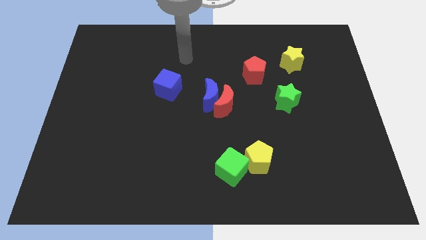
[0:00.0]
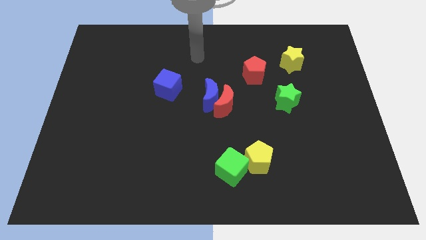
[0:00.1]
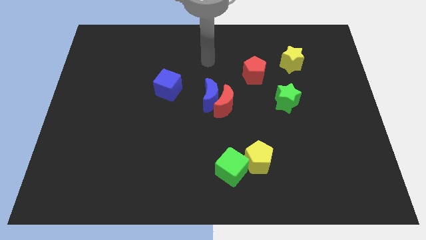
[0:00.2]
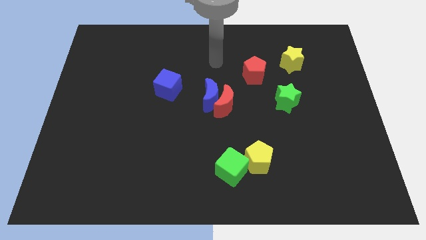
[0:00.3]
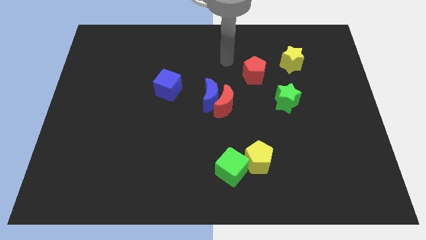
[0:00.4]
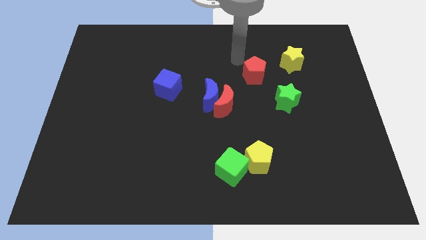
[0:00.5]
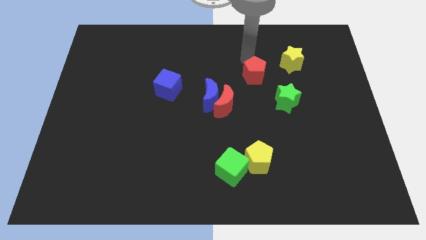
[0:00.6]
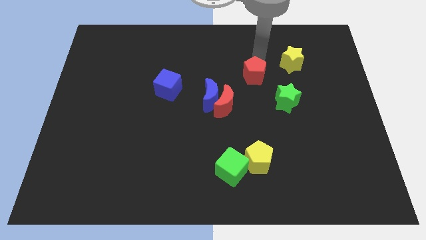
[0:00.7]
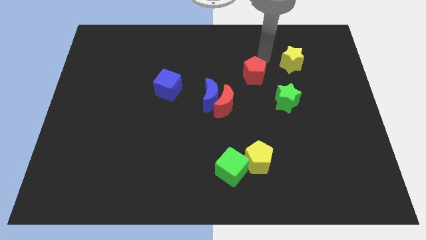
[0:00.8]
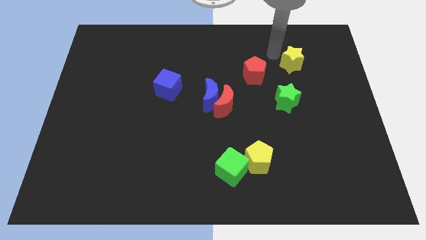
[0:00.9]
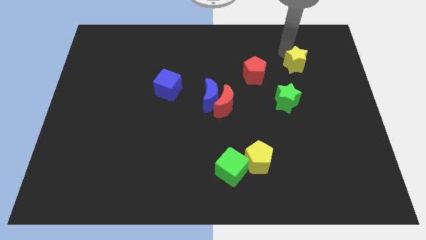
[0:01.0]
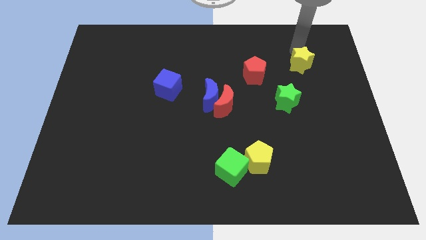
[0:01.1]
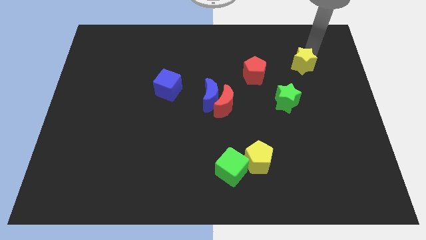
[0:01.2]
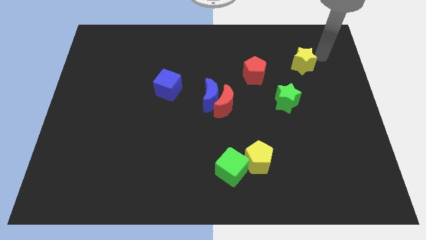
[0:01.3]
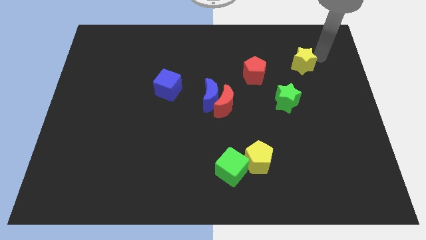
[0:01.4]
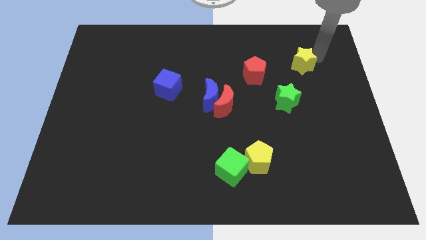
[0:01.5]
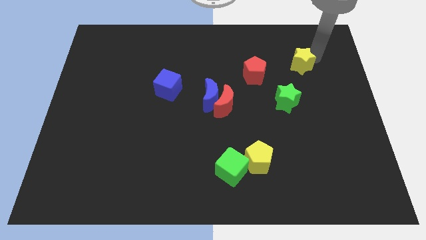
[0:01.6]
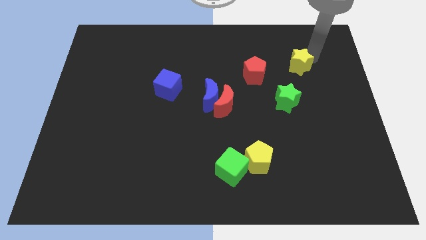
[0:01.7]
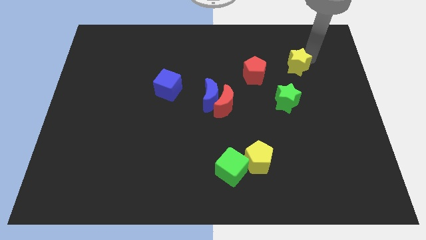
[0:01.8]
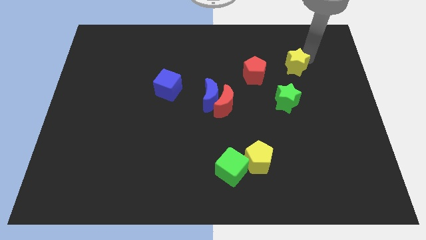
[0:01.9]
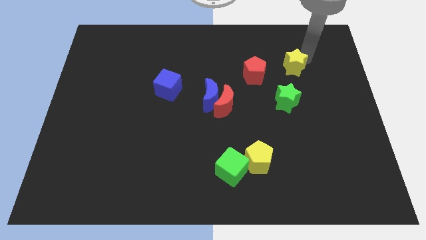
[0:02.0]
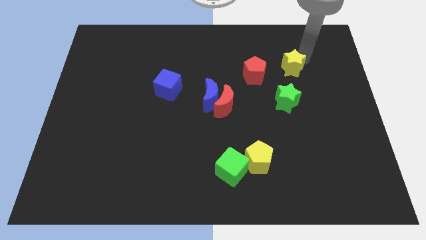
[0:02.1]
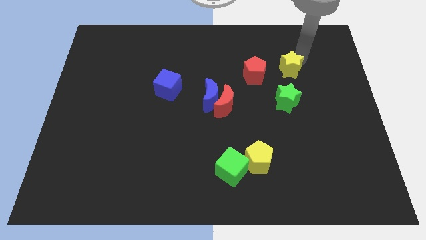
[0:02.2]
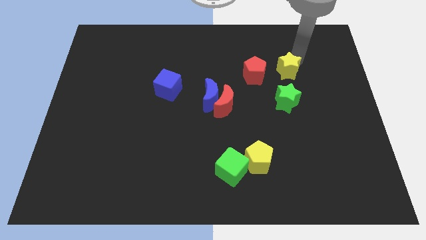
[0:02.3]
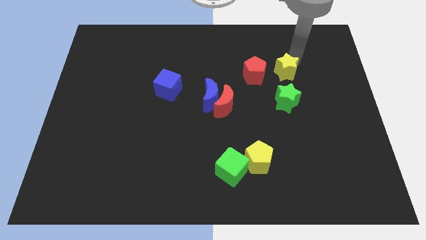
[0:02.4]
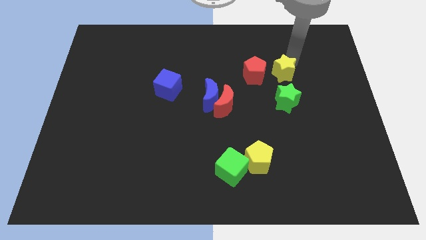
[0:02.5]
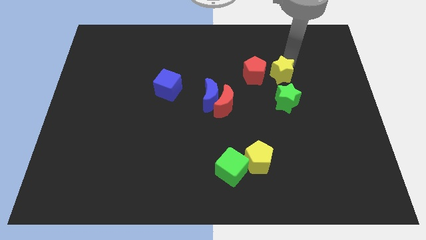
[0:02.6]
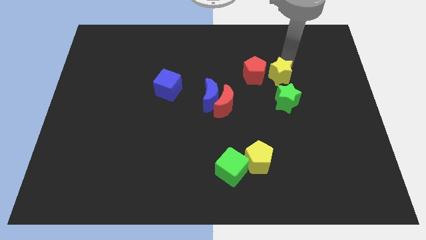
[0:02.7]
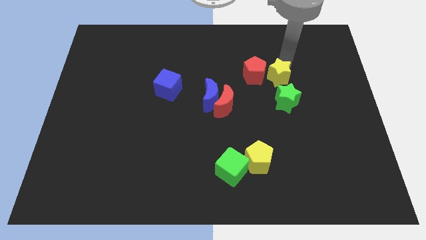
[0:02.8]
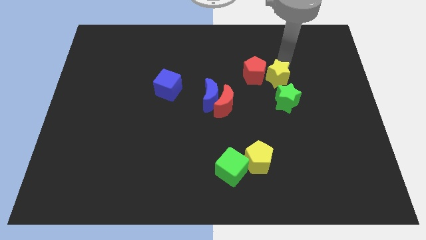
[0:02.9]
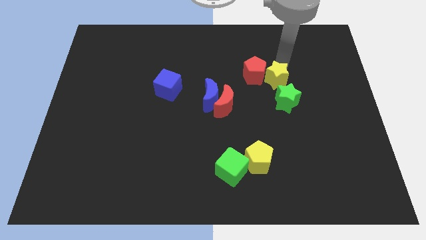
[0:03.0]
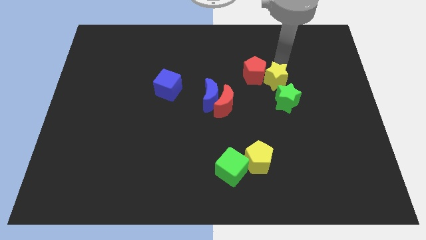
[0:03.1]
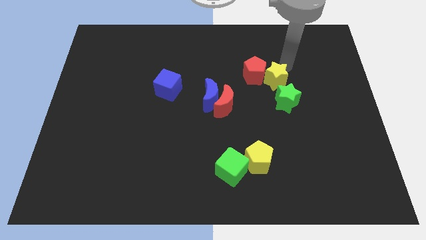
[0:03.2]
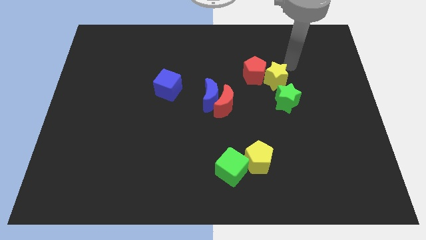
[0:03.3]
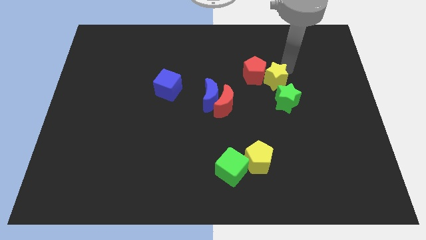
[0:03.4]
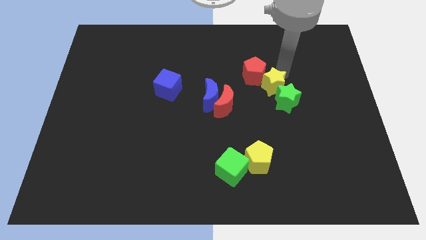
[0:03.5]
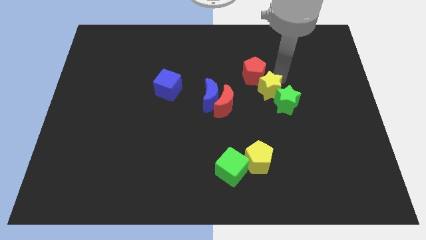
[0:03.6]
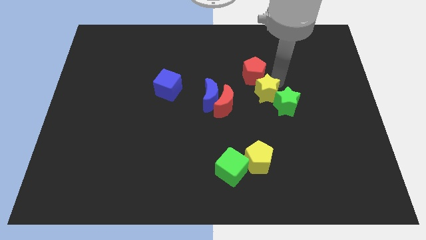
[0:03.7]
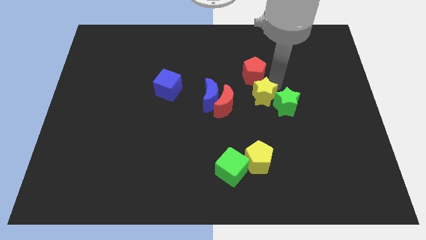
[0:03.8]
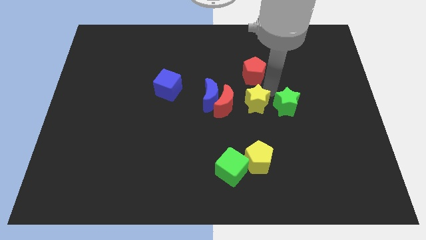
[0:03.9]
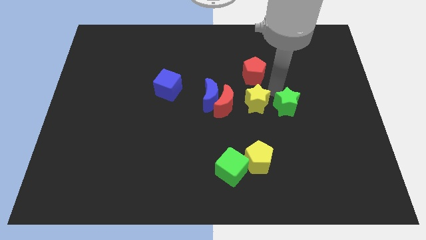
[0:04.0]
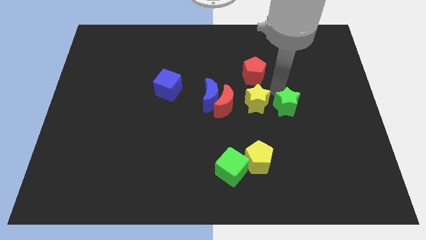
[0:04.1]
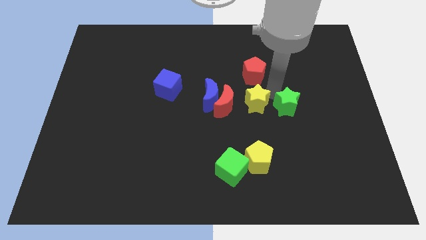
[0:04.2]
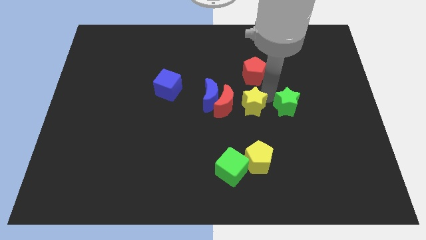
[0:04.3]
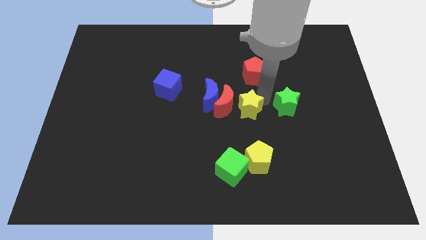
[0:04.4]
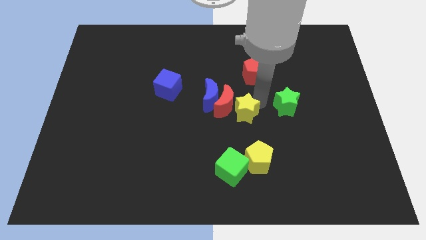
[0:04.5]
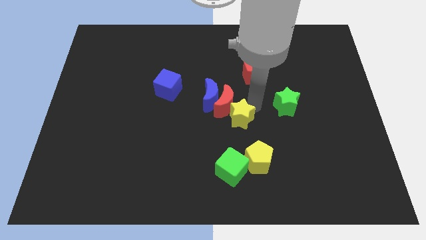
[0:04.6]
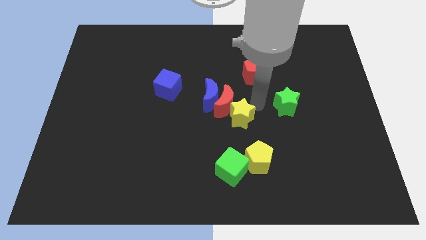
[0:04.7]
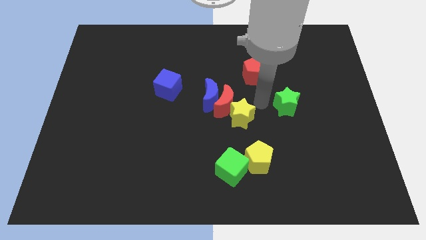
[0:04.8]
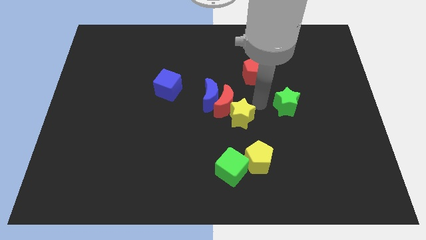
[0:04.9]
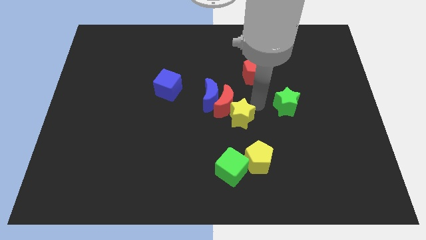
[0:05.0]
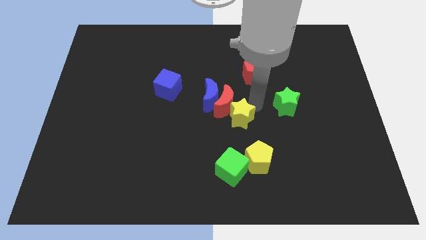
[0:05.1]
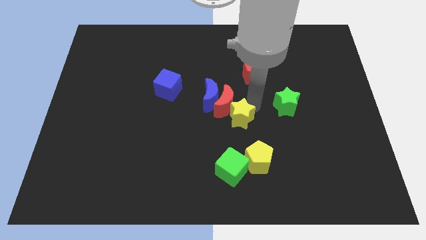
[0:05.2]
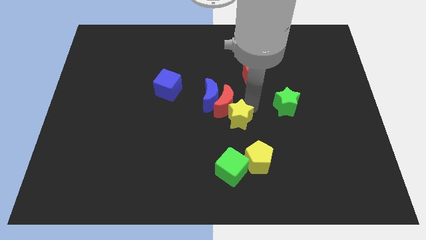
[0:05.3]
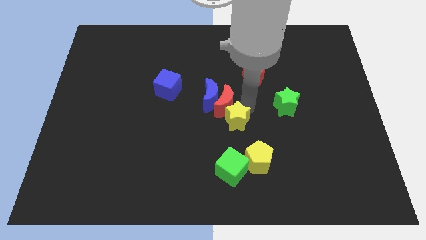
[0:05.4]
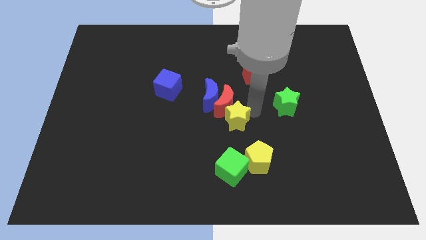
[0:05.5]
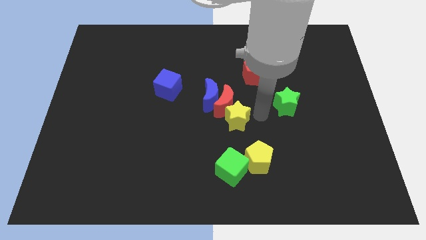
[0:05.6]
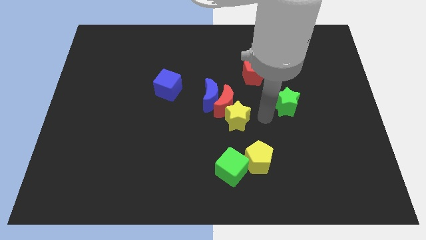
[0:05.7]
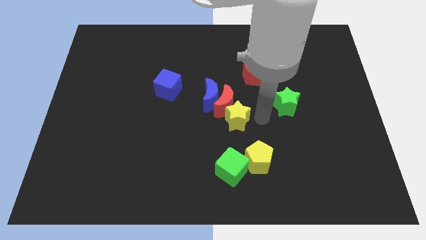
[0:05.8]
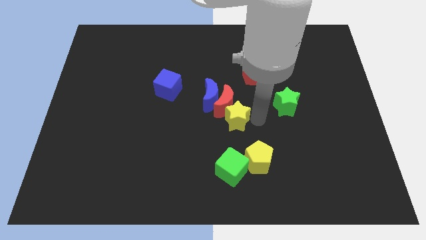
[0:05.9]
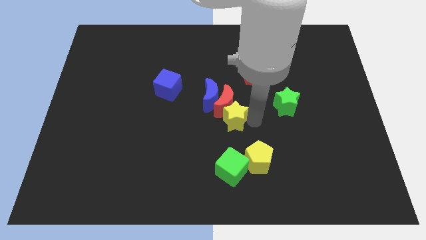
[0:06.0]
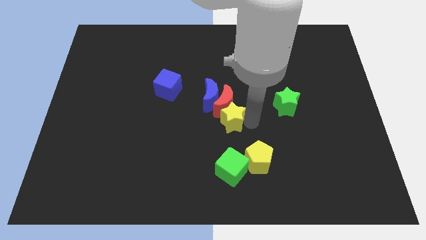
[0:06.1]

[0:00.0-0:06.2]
slide the yellow star diagonally down and to the left of the red moon

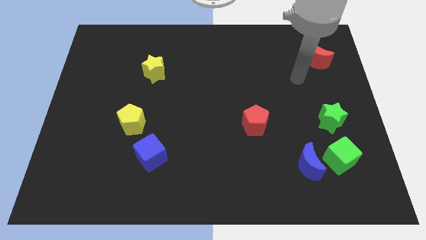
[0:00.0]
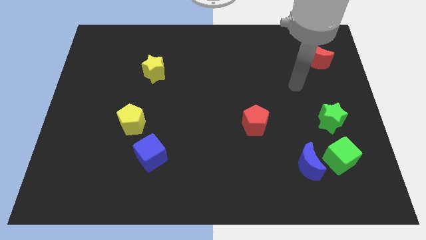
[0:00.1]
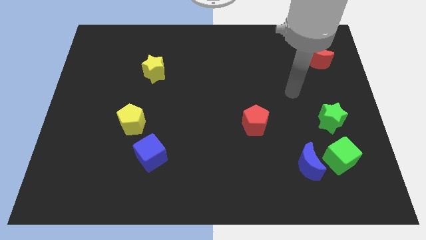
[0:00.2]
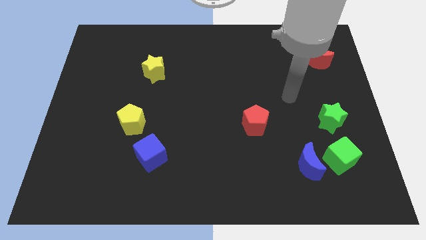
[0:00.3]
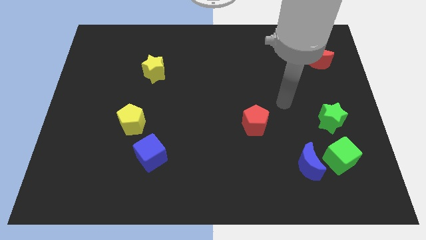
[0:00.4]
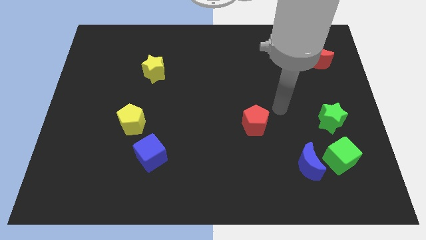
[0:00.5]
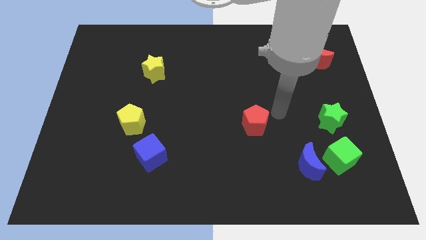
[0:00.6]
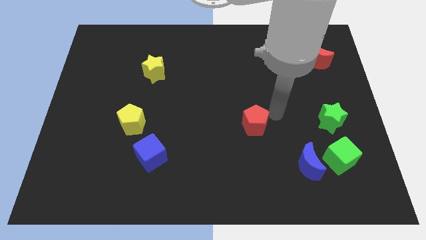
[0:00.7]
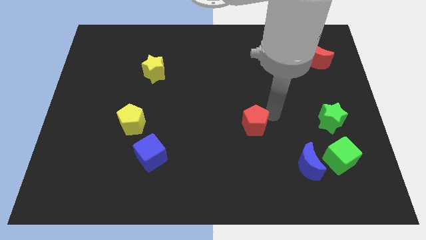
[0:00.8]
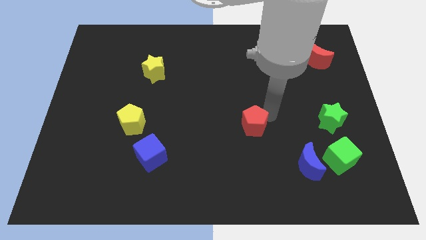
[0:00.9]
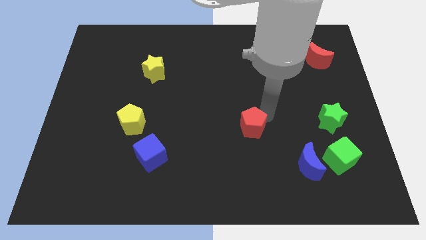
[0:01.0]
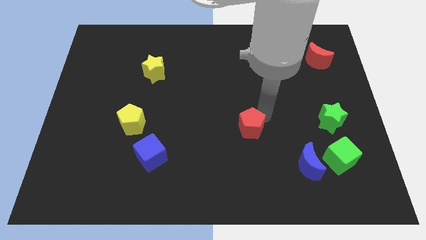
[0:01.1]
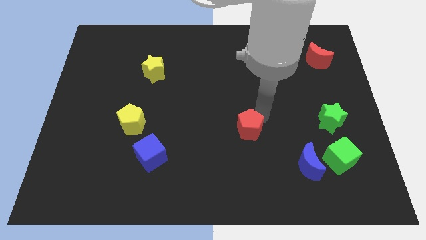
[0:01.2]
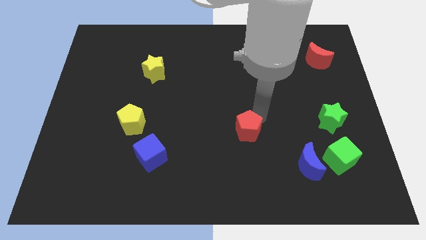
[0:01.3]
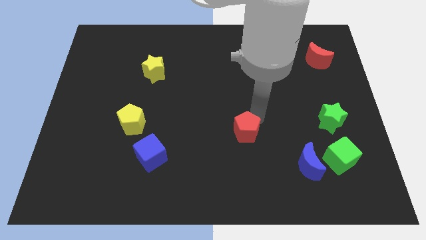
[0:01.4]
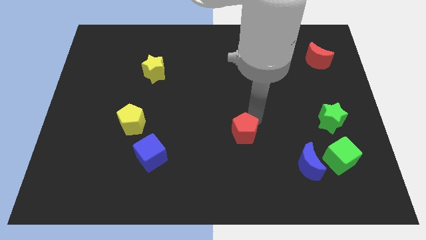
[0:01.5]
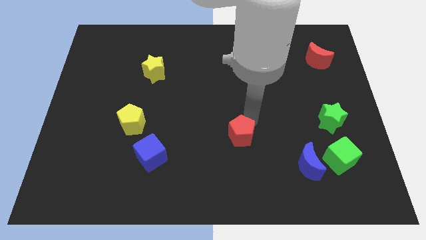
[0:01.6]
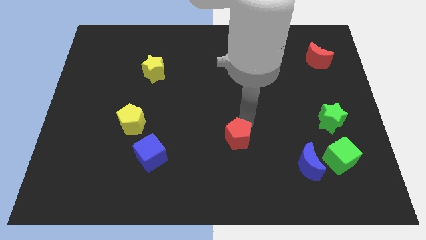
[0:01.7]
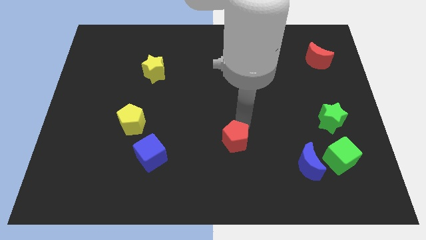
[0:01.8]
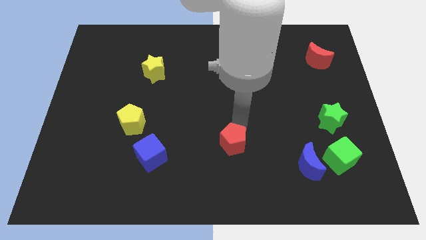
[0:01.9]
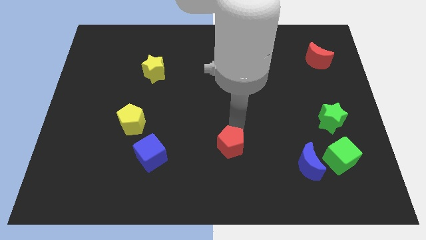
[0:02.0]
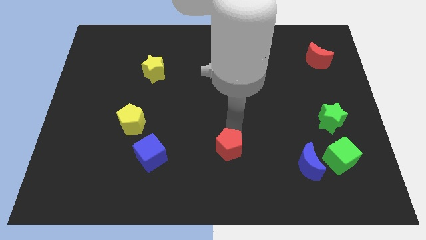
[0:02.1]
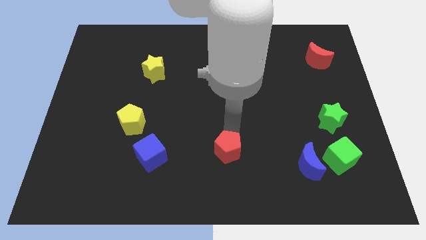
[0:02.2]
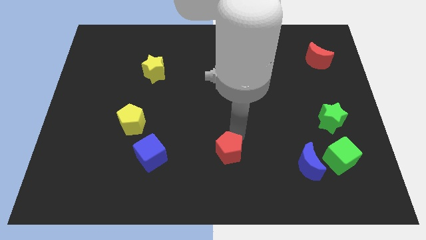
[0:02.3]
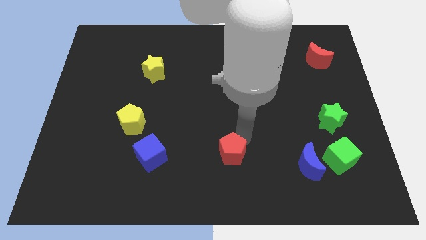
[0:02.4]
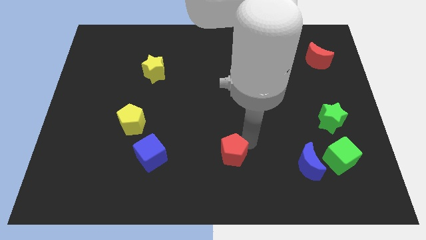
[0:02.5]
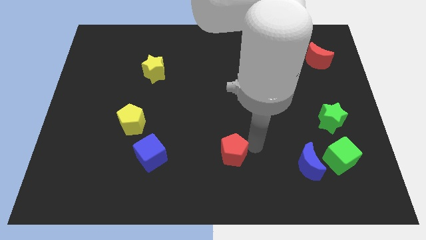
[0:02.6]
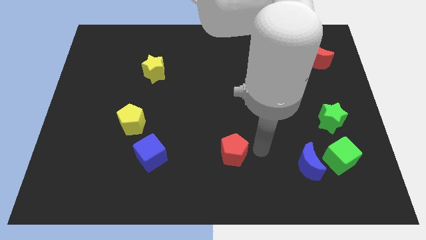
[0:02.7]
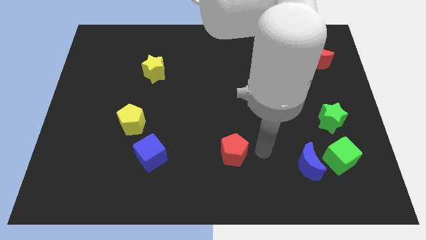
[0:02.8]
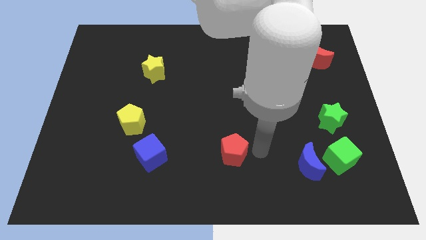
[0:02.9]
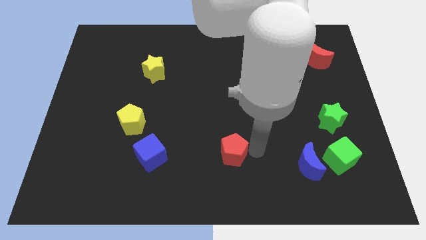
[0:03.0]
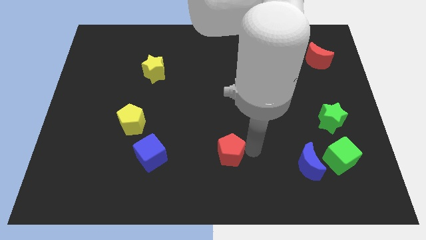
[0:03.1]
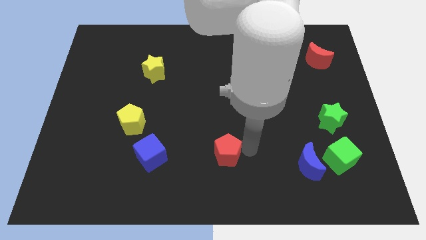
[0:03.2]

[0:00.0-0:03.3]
slide the red pentagon to the right side of the blue cube
